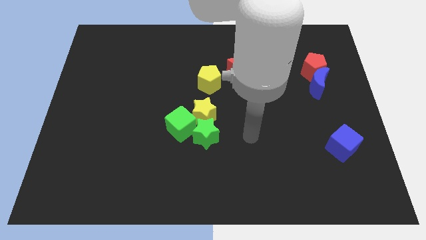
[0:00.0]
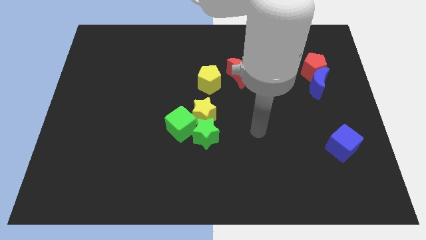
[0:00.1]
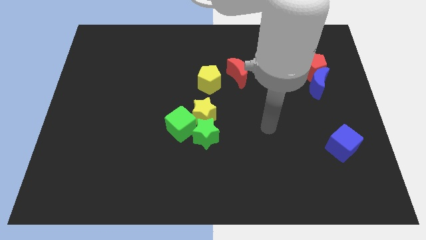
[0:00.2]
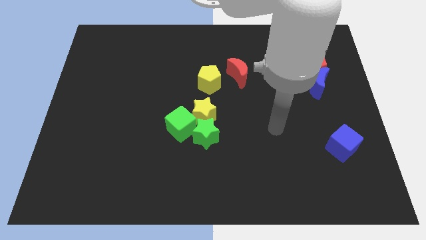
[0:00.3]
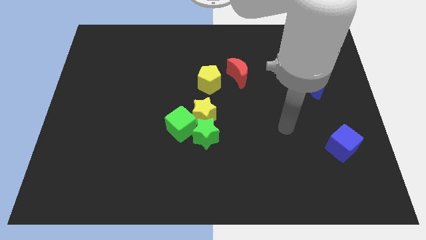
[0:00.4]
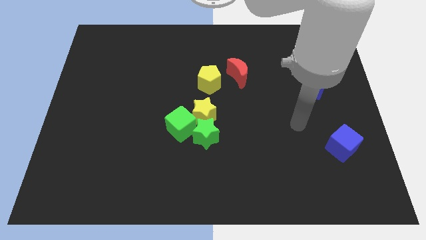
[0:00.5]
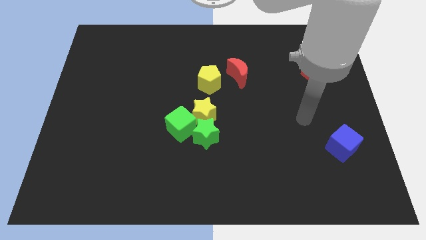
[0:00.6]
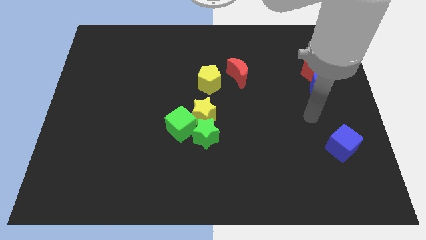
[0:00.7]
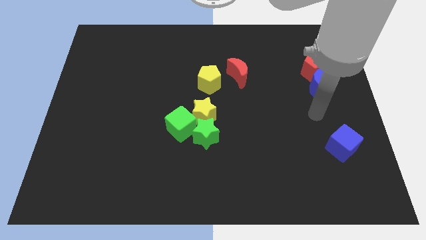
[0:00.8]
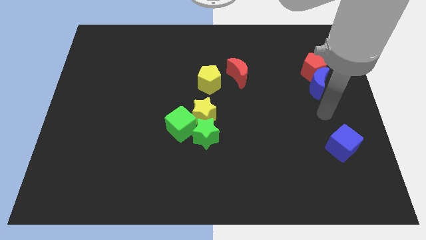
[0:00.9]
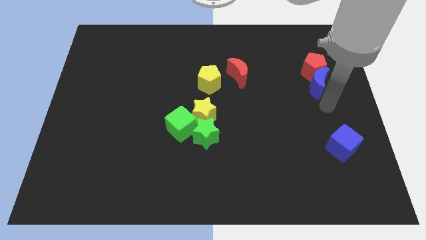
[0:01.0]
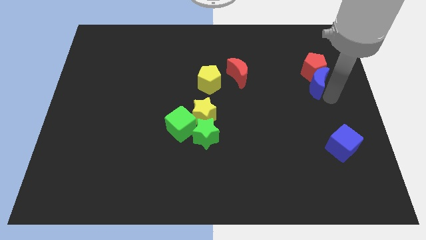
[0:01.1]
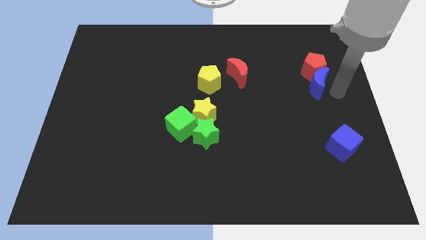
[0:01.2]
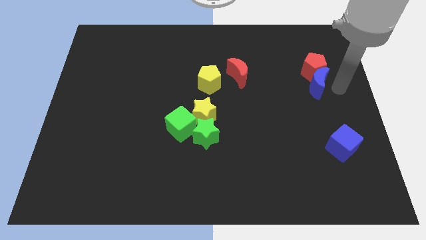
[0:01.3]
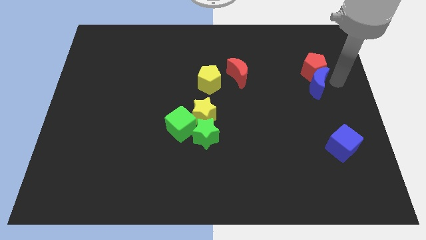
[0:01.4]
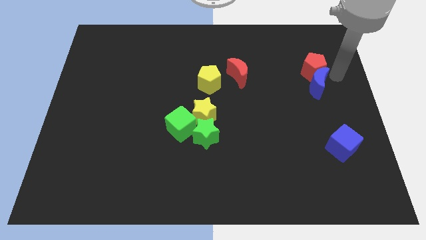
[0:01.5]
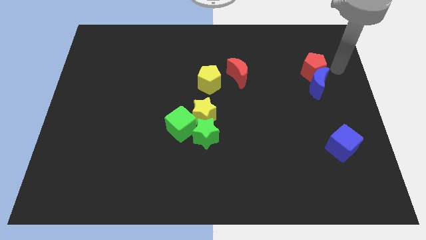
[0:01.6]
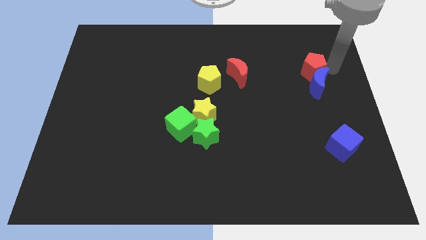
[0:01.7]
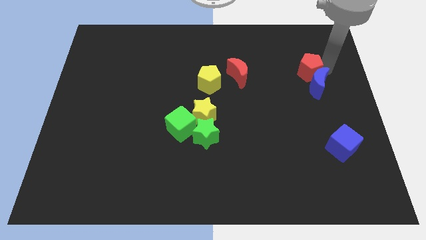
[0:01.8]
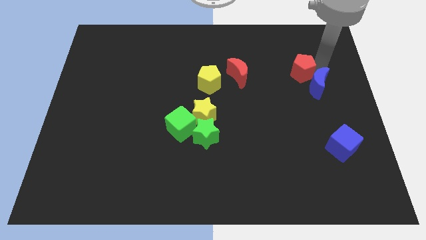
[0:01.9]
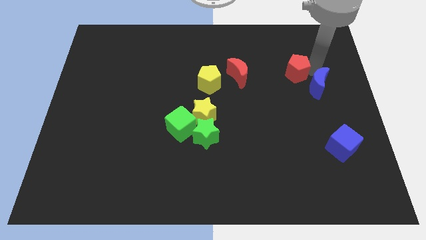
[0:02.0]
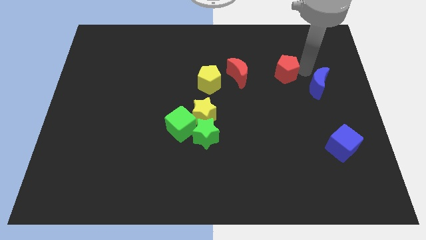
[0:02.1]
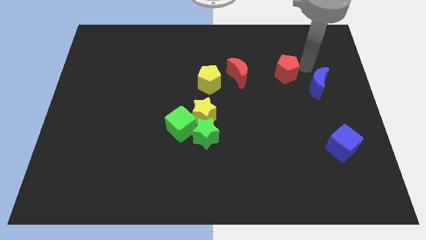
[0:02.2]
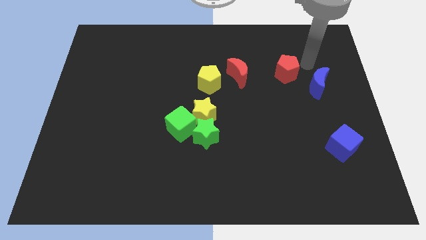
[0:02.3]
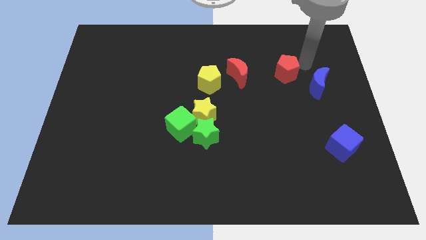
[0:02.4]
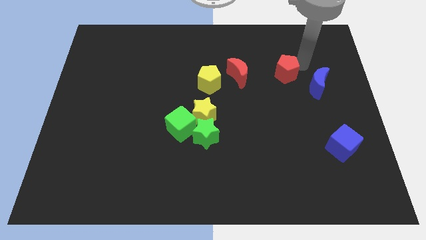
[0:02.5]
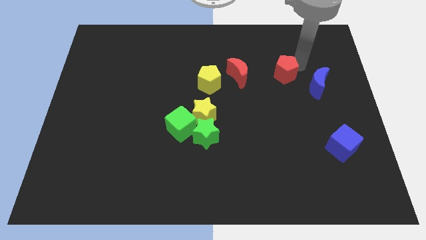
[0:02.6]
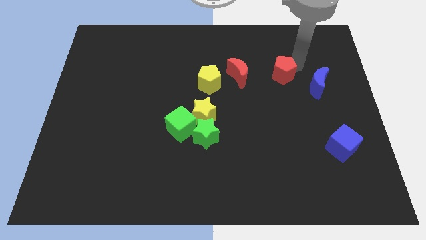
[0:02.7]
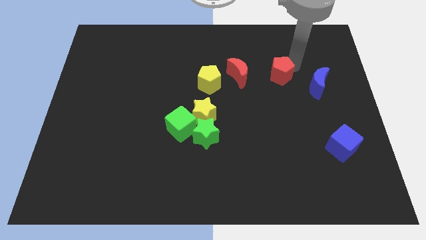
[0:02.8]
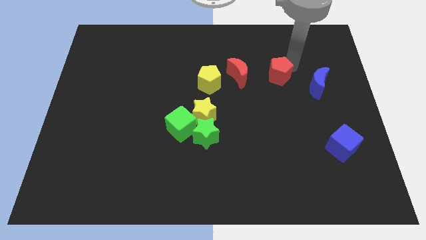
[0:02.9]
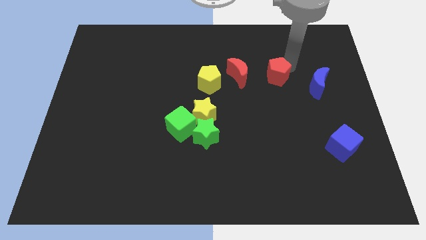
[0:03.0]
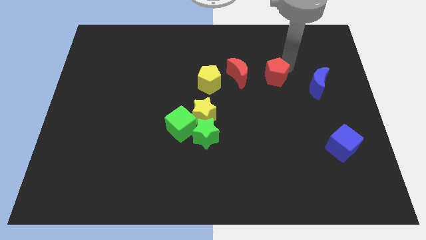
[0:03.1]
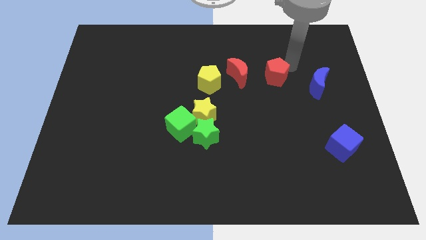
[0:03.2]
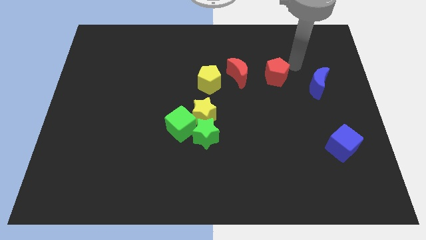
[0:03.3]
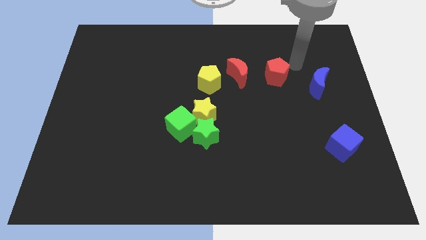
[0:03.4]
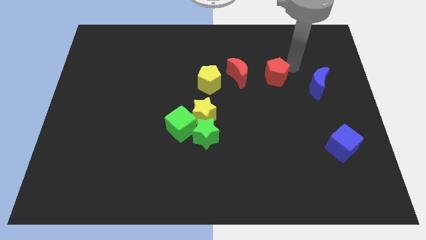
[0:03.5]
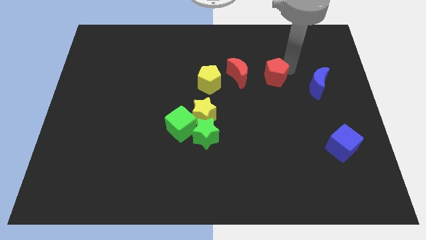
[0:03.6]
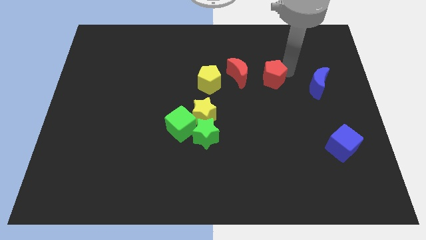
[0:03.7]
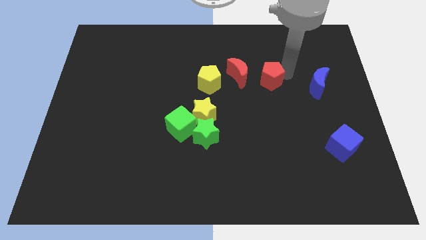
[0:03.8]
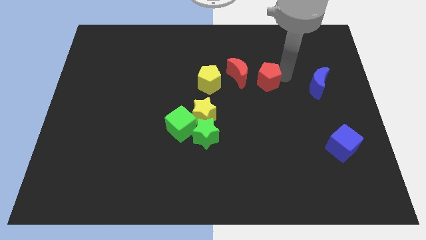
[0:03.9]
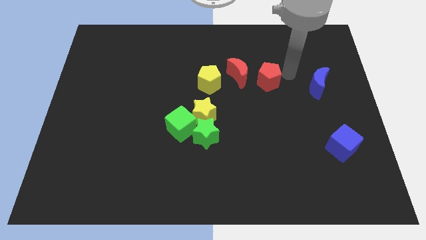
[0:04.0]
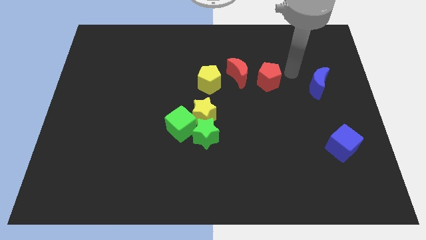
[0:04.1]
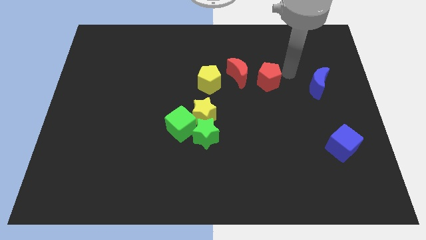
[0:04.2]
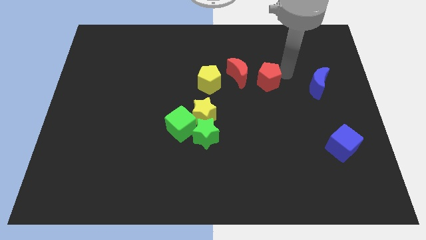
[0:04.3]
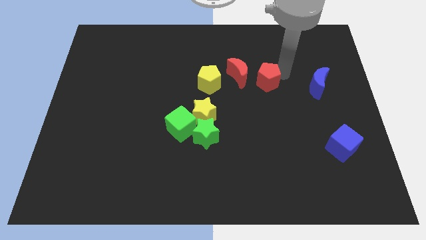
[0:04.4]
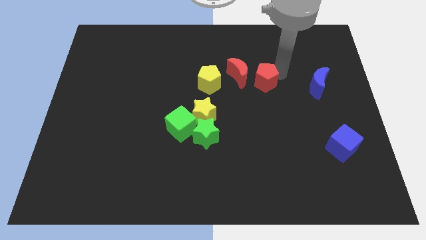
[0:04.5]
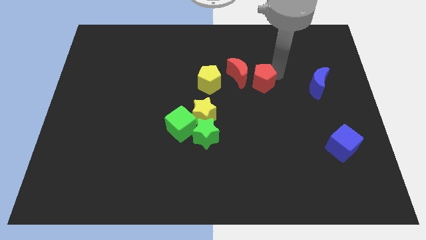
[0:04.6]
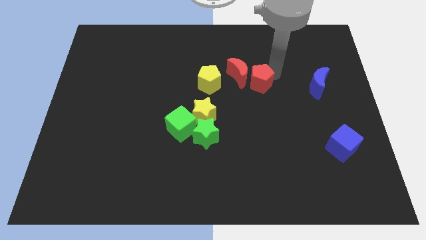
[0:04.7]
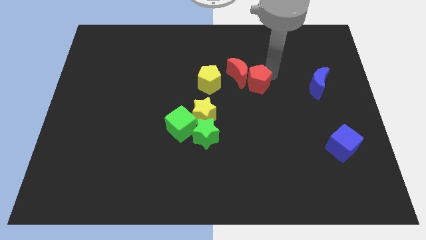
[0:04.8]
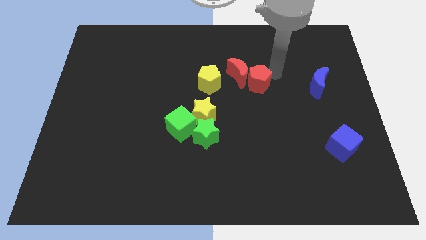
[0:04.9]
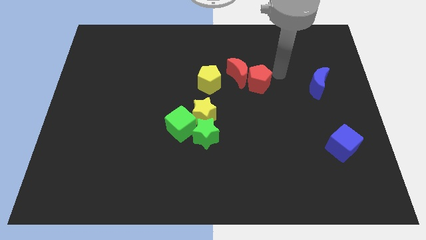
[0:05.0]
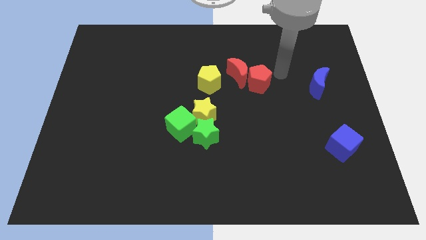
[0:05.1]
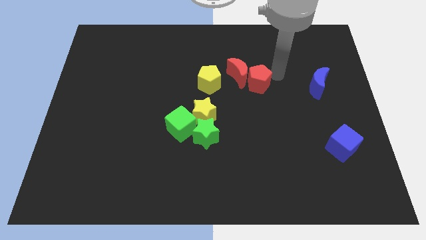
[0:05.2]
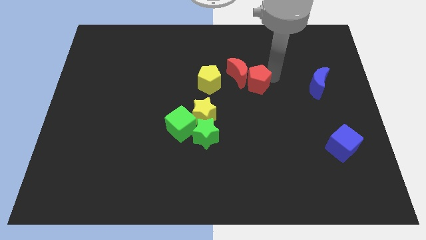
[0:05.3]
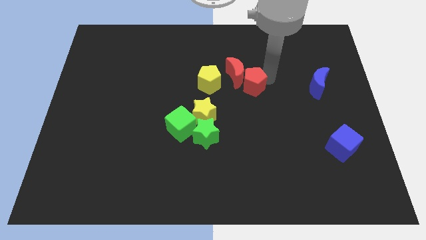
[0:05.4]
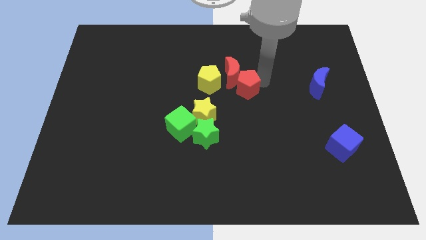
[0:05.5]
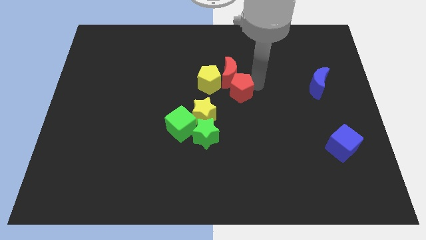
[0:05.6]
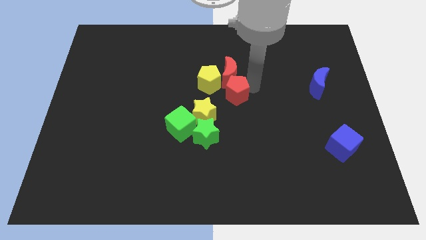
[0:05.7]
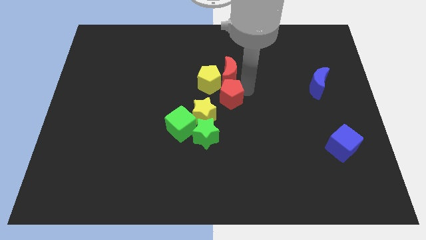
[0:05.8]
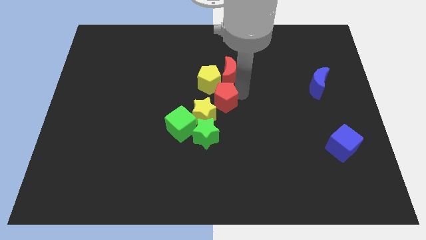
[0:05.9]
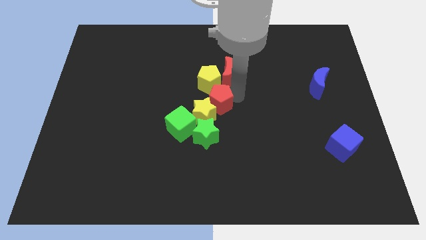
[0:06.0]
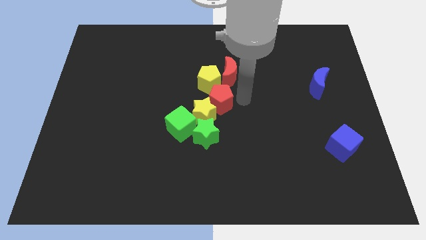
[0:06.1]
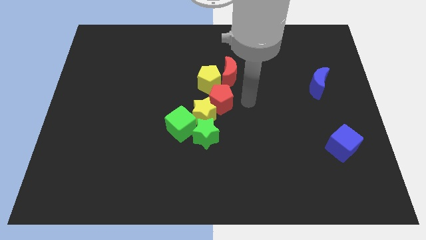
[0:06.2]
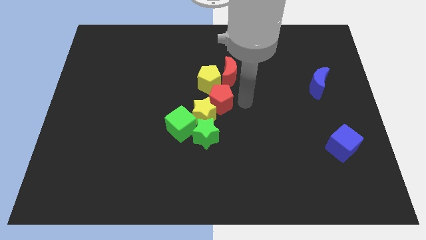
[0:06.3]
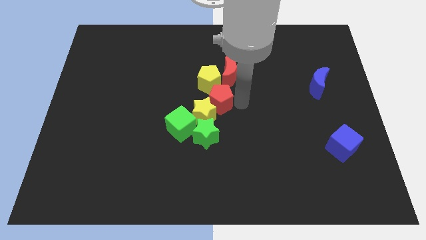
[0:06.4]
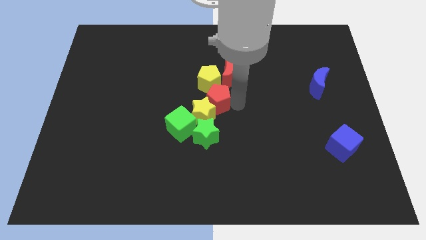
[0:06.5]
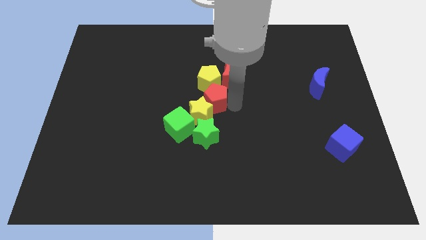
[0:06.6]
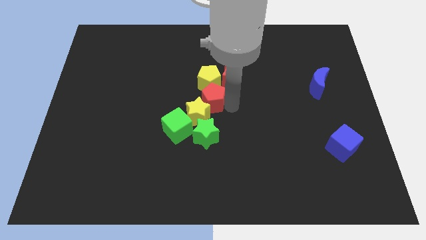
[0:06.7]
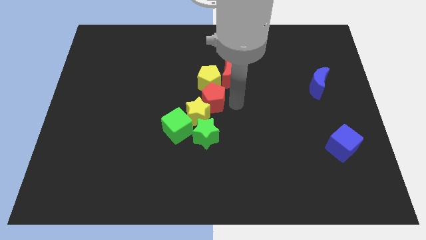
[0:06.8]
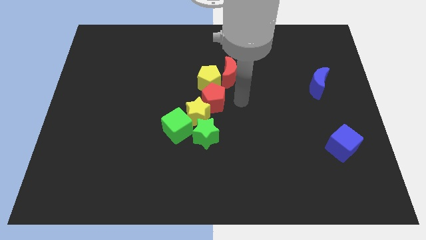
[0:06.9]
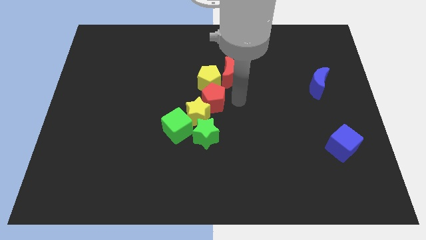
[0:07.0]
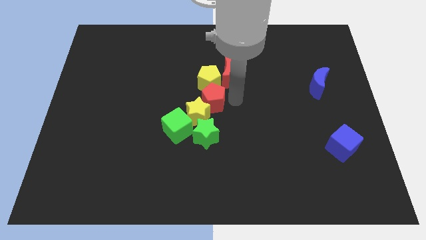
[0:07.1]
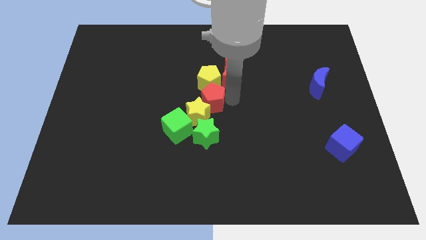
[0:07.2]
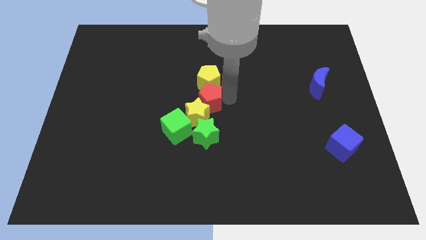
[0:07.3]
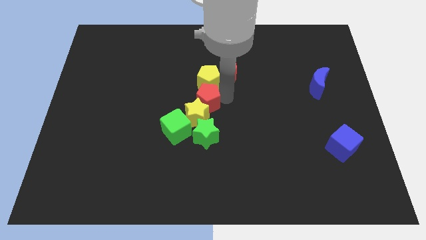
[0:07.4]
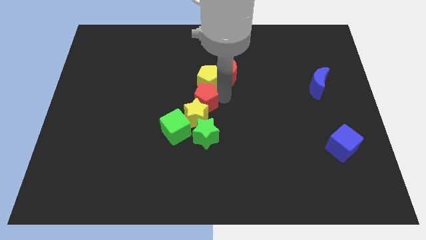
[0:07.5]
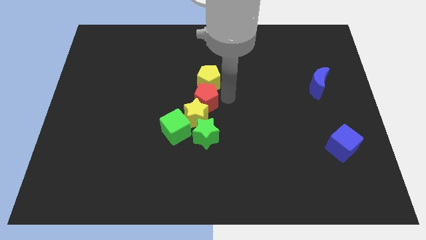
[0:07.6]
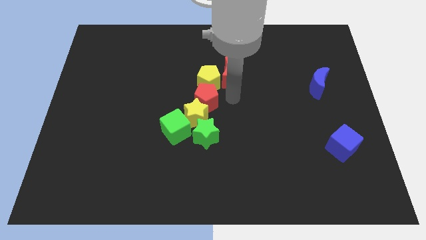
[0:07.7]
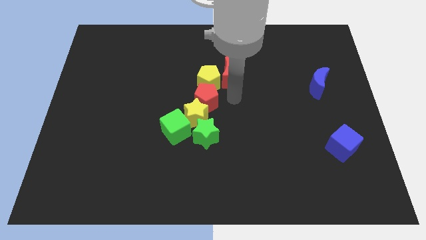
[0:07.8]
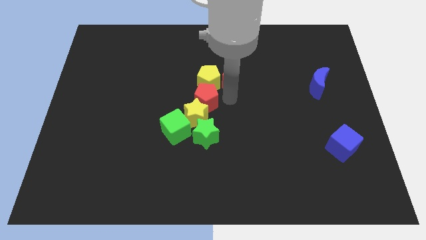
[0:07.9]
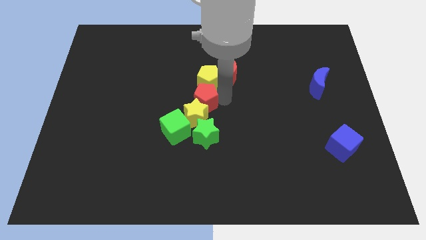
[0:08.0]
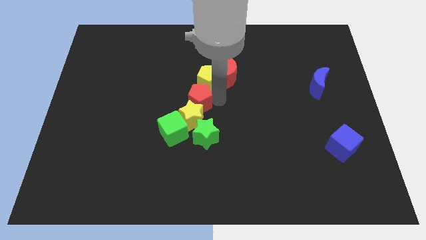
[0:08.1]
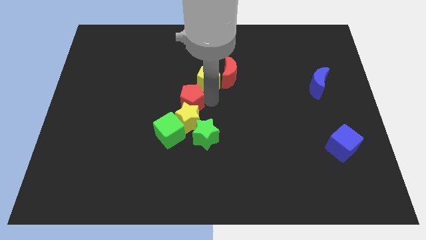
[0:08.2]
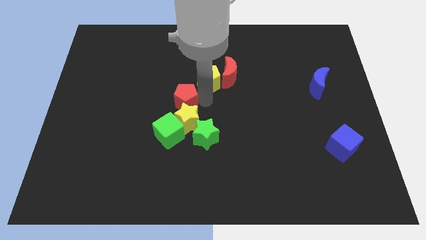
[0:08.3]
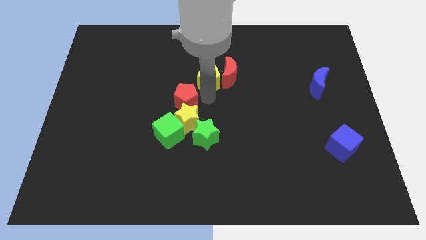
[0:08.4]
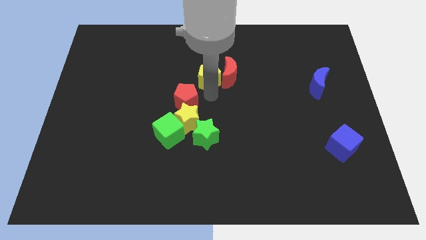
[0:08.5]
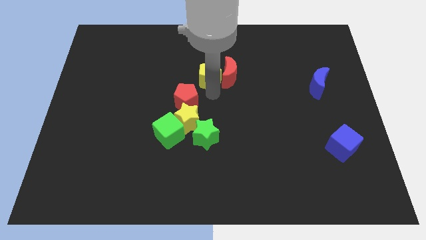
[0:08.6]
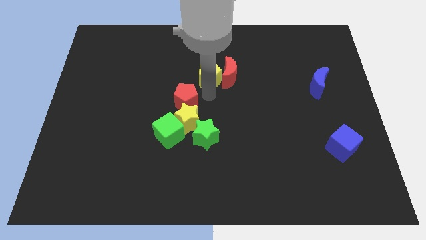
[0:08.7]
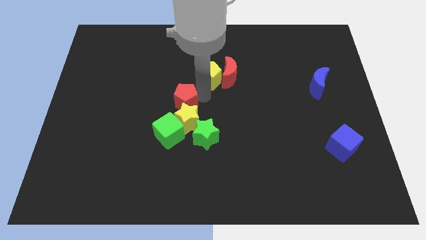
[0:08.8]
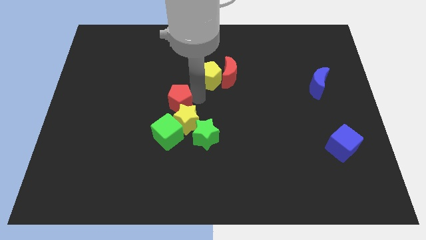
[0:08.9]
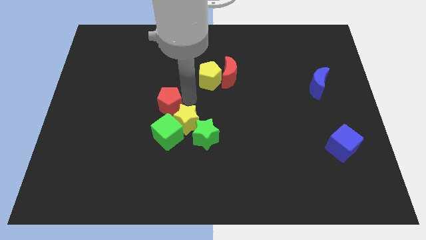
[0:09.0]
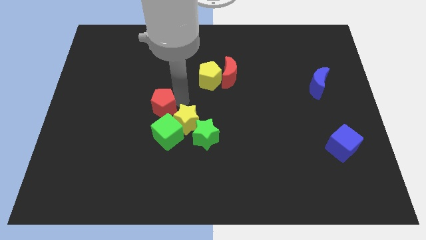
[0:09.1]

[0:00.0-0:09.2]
push the red pentagon to the top left of the green cube
